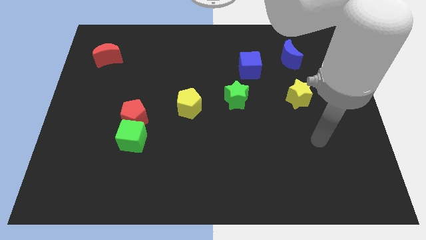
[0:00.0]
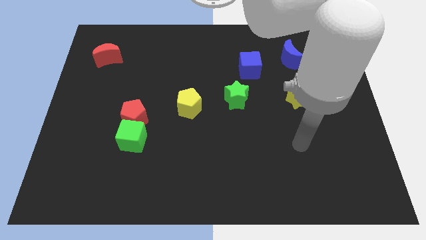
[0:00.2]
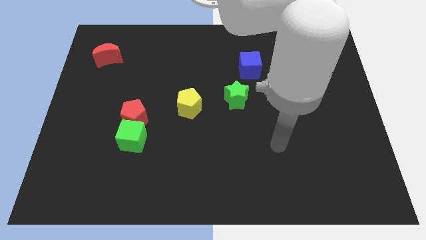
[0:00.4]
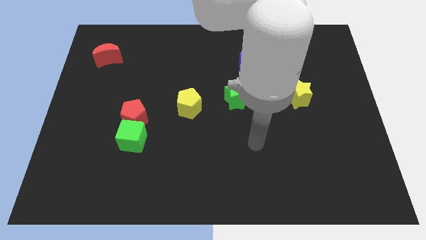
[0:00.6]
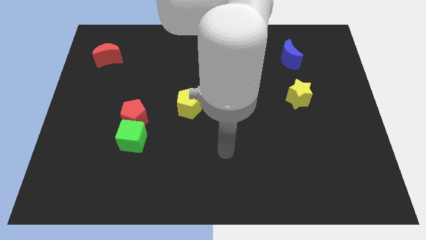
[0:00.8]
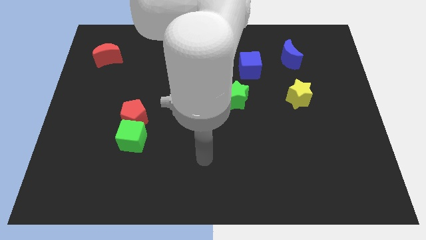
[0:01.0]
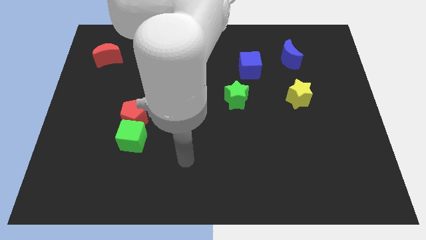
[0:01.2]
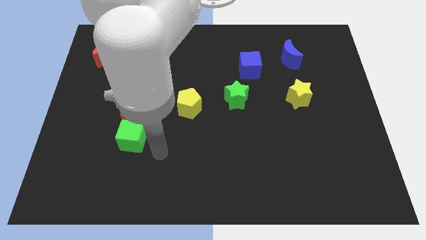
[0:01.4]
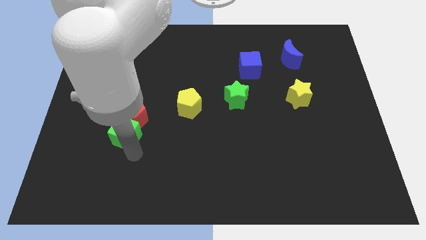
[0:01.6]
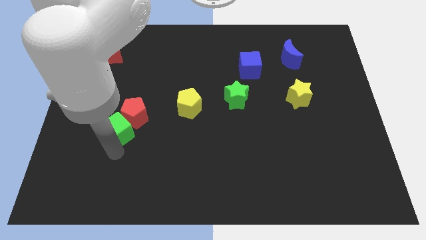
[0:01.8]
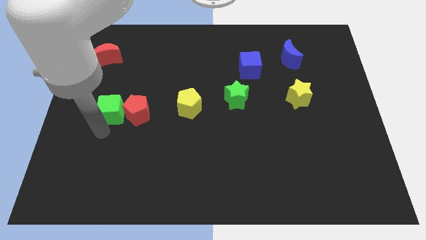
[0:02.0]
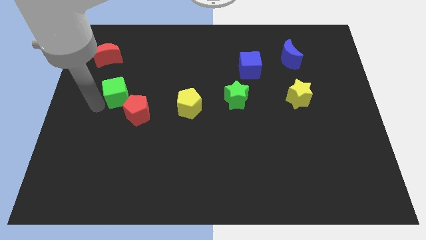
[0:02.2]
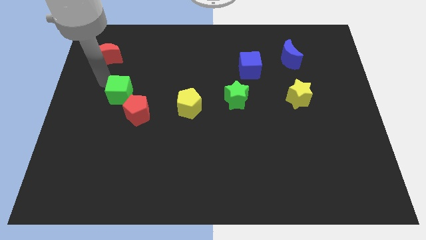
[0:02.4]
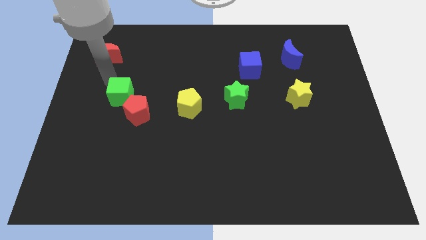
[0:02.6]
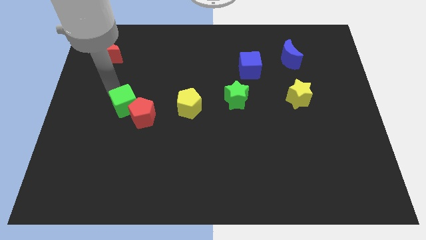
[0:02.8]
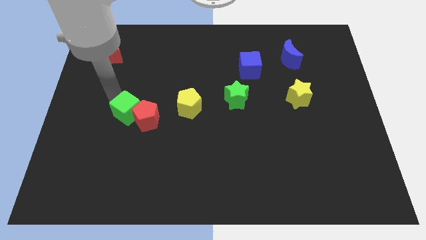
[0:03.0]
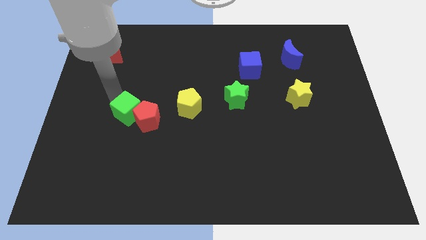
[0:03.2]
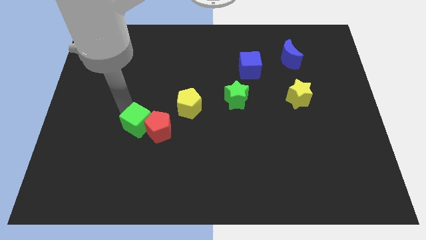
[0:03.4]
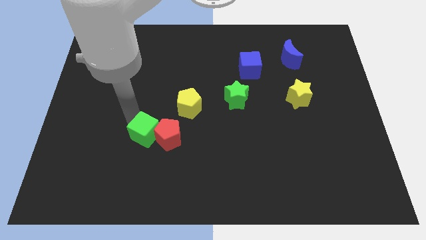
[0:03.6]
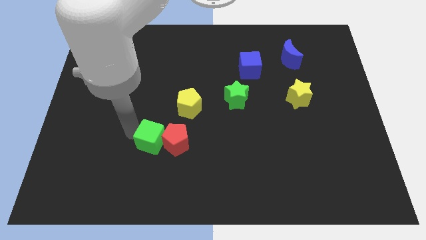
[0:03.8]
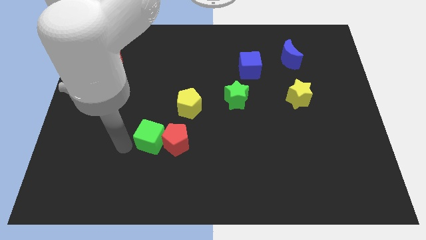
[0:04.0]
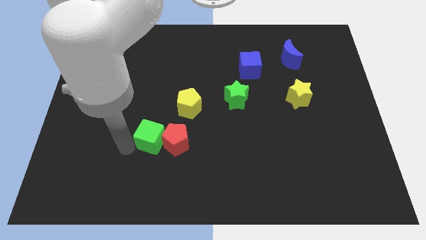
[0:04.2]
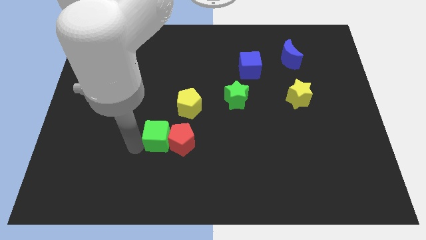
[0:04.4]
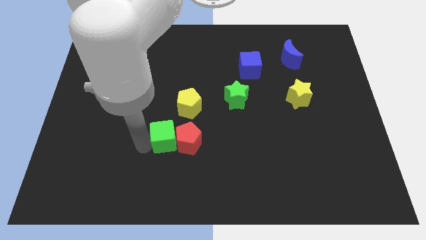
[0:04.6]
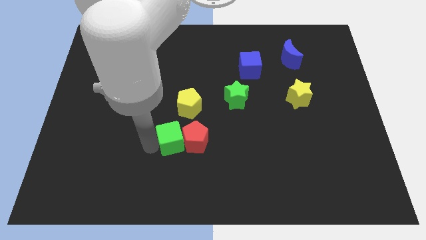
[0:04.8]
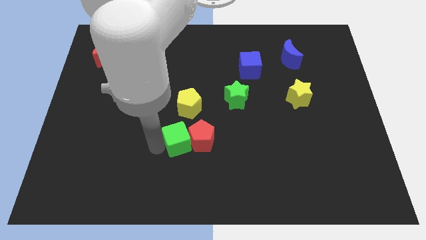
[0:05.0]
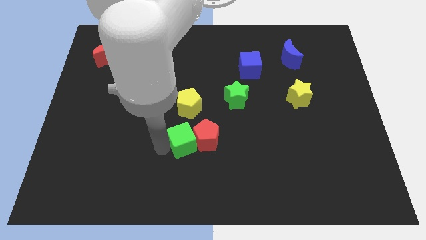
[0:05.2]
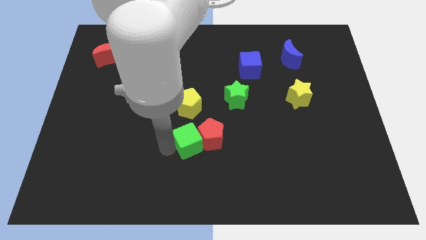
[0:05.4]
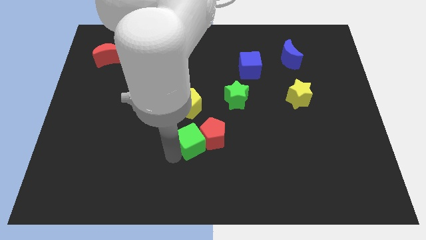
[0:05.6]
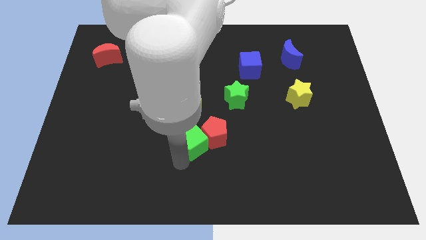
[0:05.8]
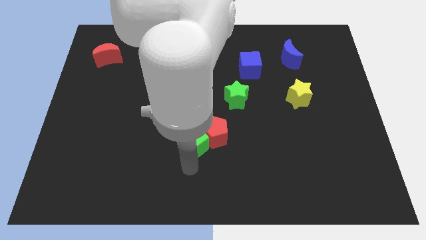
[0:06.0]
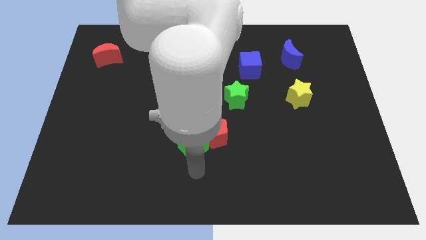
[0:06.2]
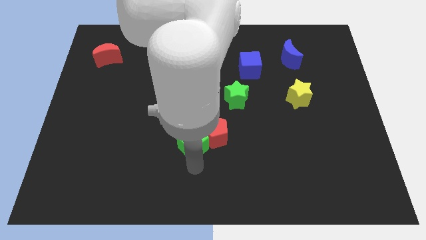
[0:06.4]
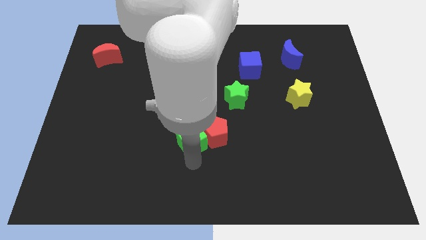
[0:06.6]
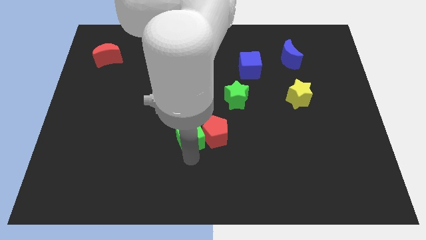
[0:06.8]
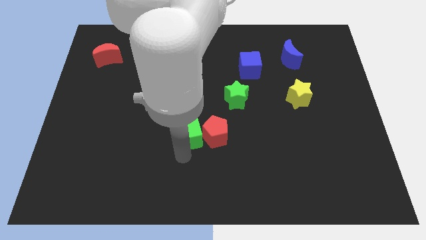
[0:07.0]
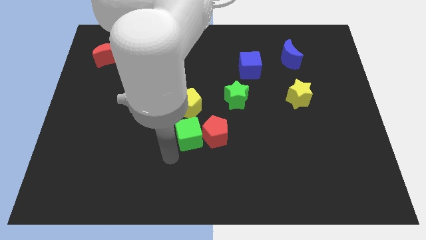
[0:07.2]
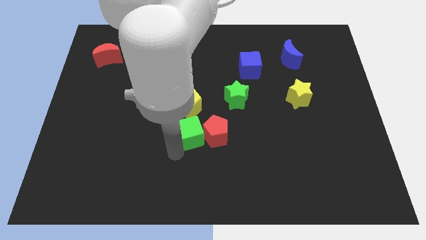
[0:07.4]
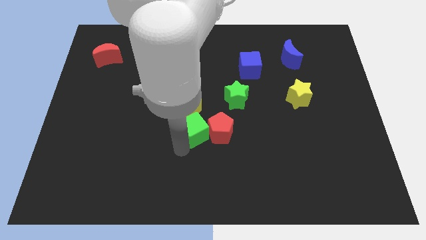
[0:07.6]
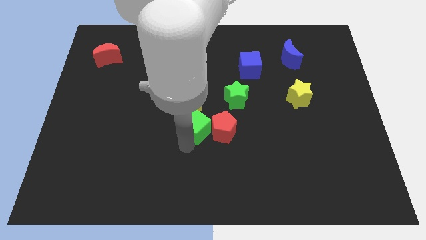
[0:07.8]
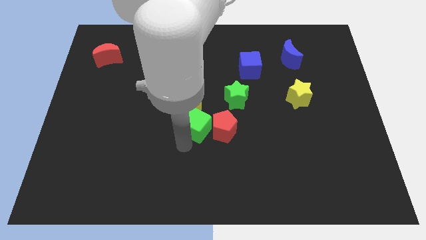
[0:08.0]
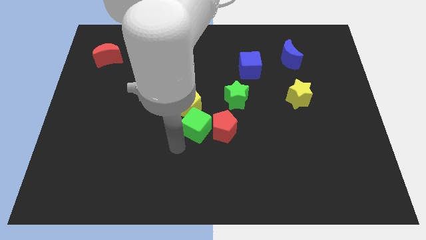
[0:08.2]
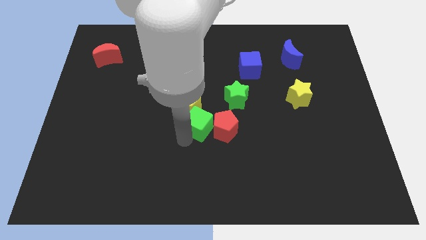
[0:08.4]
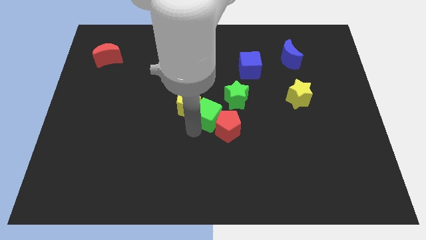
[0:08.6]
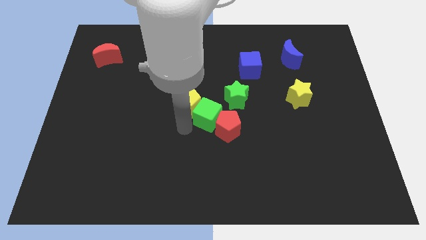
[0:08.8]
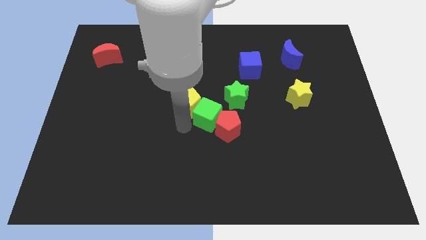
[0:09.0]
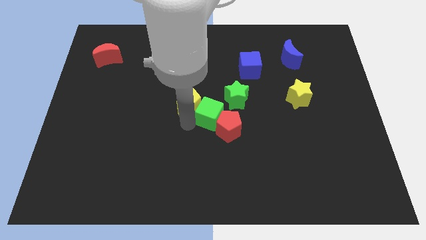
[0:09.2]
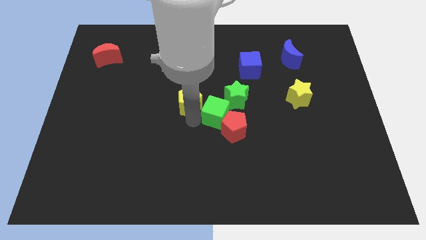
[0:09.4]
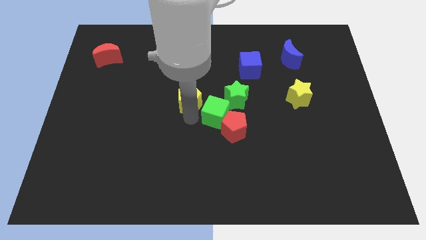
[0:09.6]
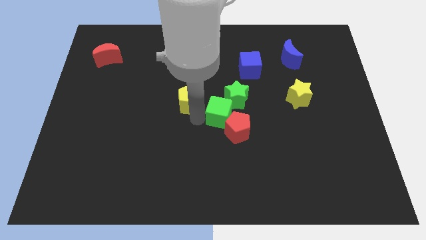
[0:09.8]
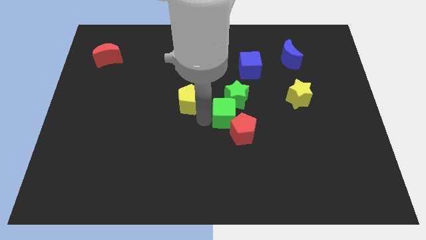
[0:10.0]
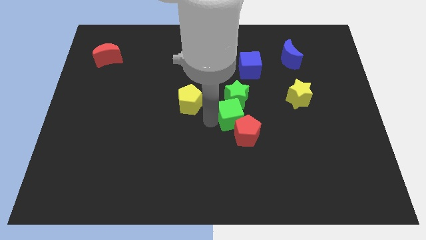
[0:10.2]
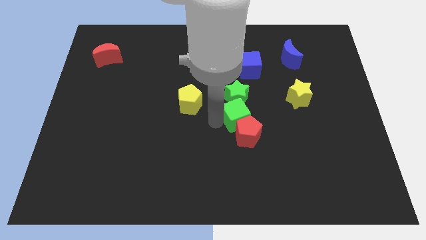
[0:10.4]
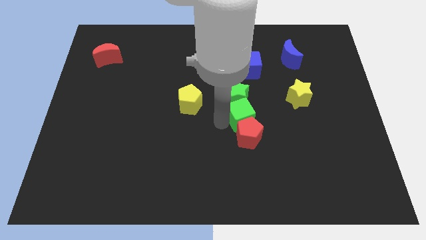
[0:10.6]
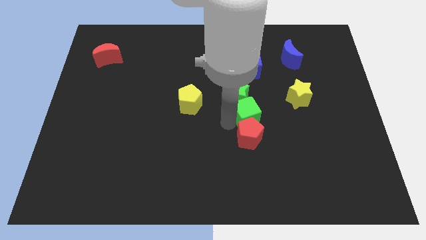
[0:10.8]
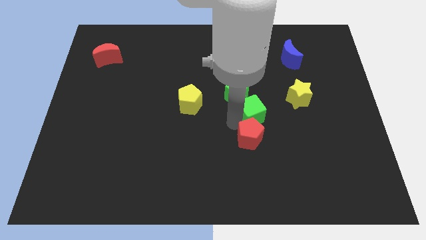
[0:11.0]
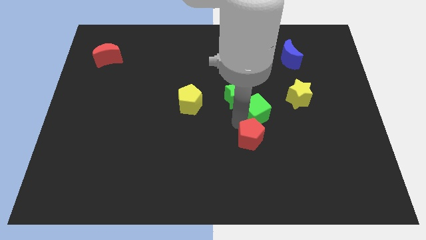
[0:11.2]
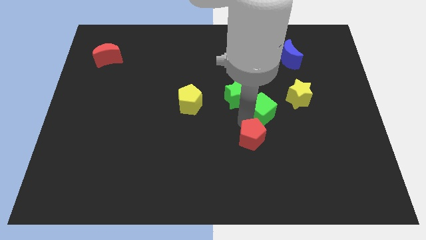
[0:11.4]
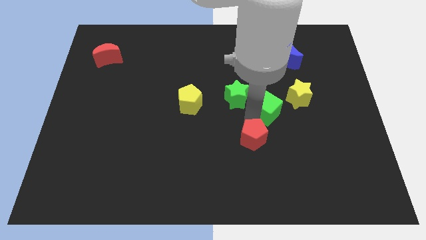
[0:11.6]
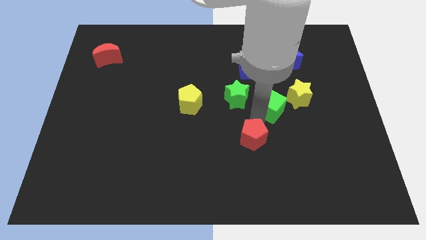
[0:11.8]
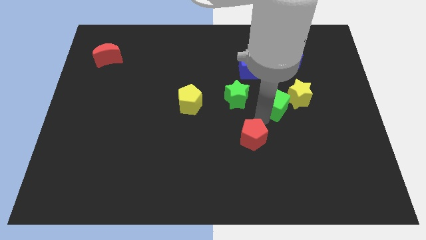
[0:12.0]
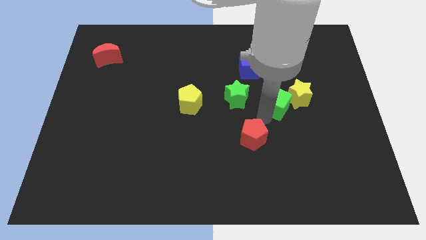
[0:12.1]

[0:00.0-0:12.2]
push the green cube next to the yellow star

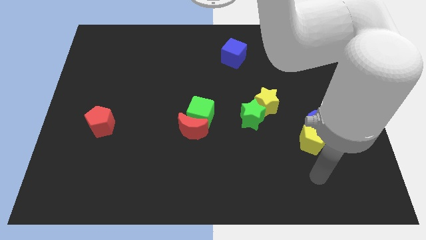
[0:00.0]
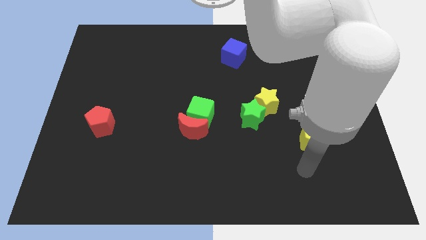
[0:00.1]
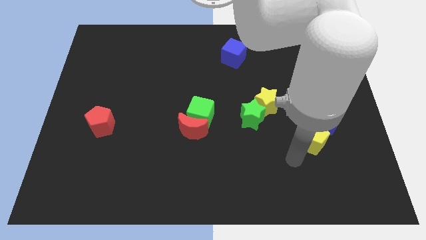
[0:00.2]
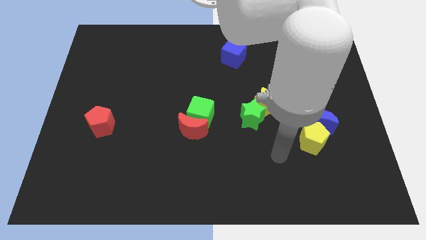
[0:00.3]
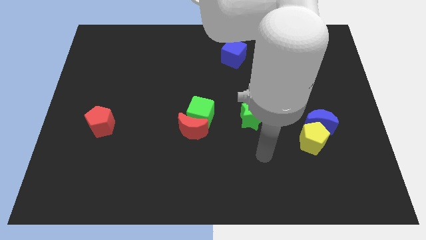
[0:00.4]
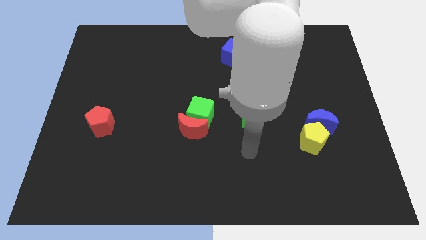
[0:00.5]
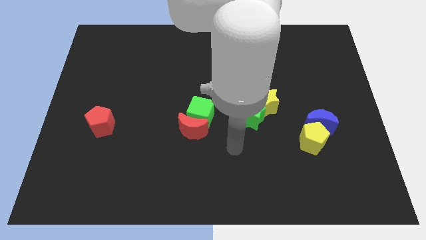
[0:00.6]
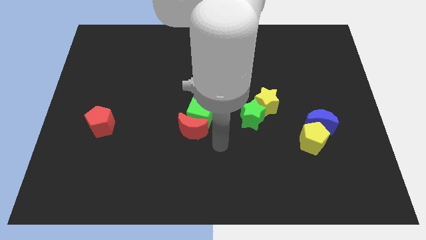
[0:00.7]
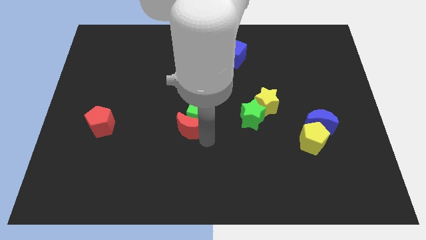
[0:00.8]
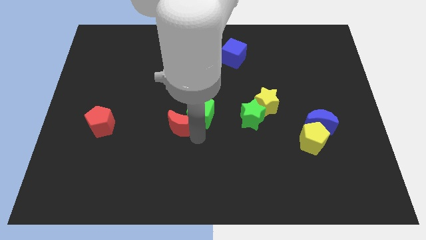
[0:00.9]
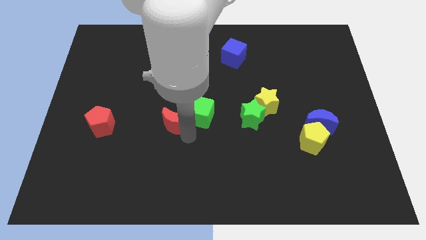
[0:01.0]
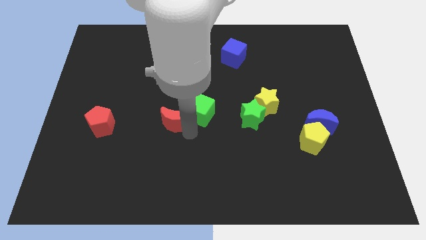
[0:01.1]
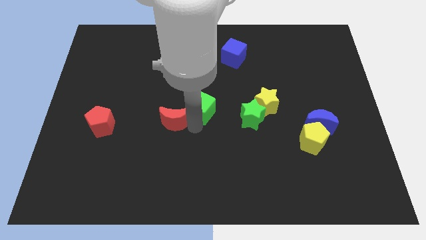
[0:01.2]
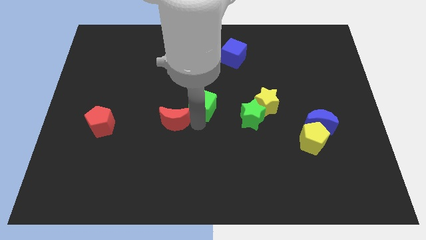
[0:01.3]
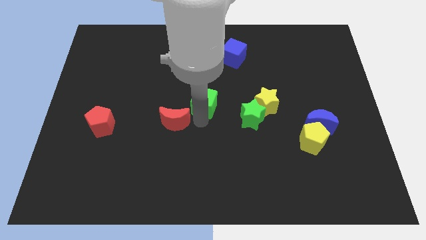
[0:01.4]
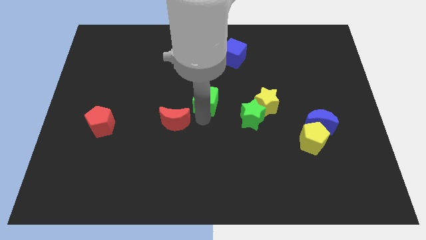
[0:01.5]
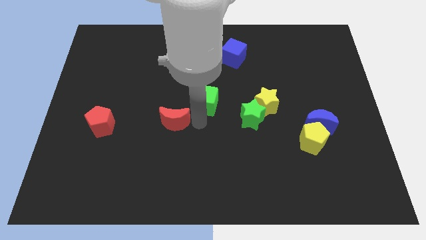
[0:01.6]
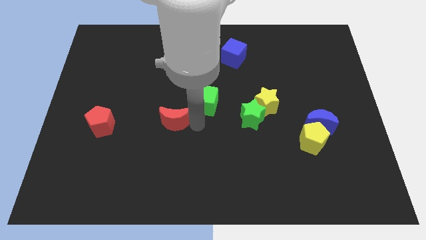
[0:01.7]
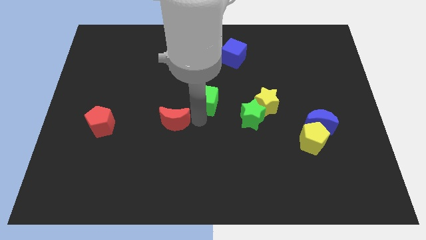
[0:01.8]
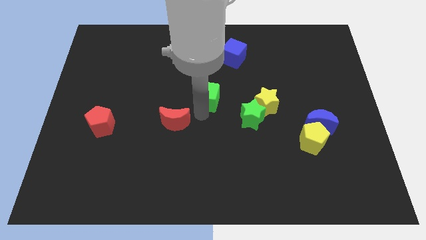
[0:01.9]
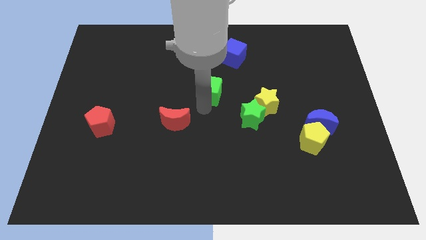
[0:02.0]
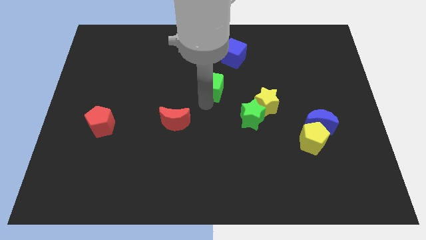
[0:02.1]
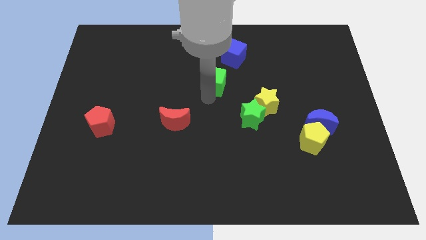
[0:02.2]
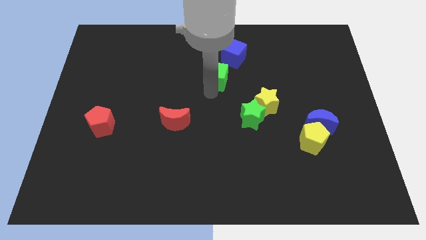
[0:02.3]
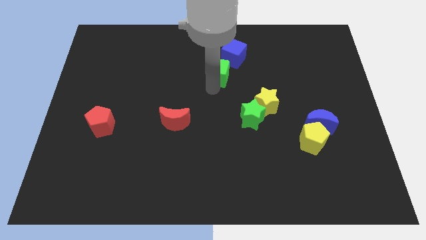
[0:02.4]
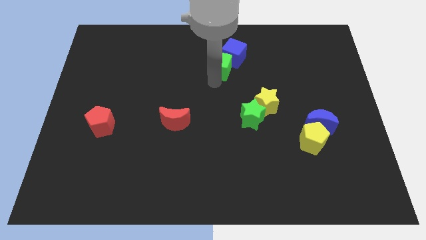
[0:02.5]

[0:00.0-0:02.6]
slide the green cube close to the blue cube
